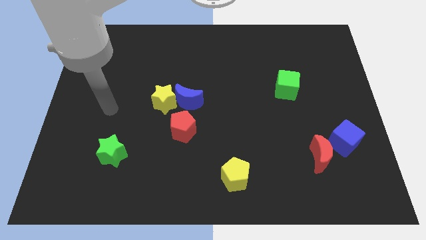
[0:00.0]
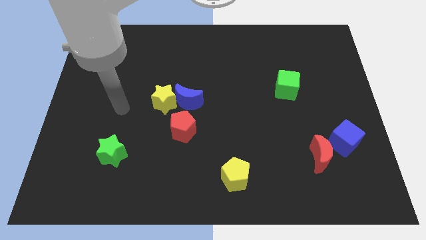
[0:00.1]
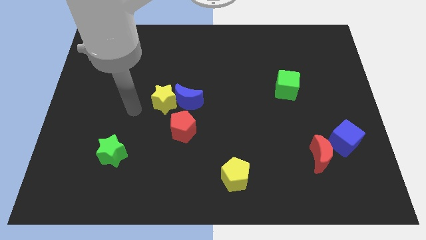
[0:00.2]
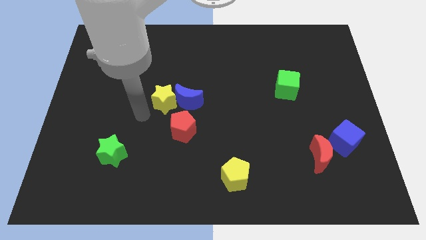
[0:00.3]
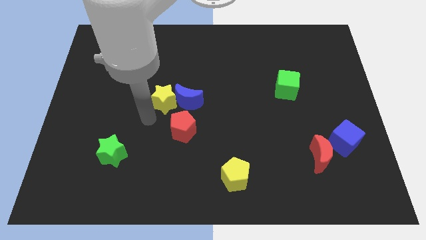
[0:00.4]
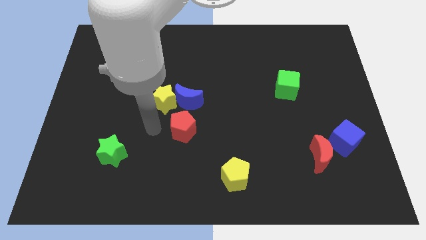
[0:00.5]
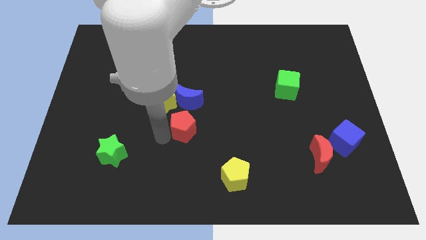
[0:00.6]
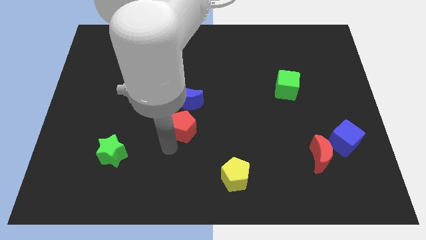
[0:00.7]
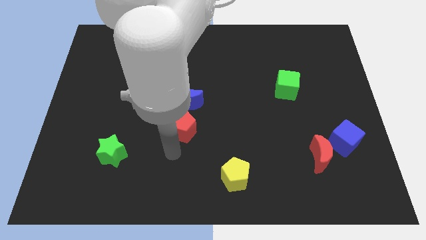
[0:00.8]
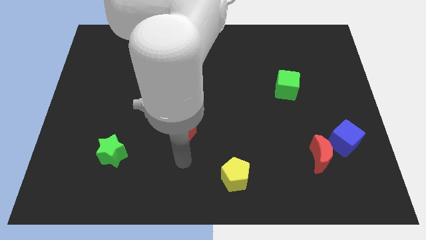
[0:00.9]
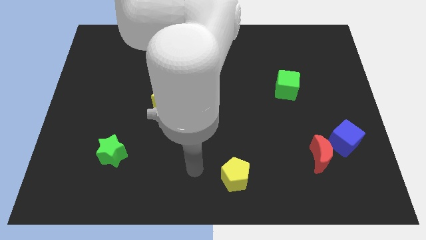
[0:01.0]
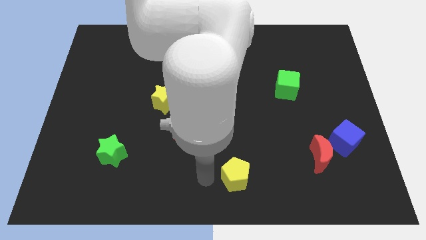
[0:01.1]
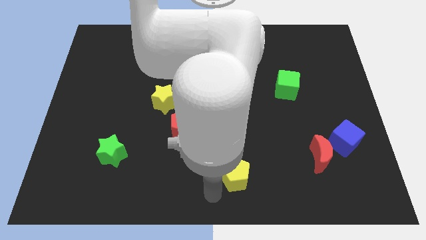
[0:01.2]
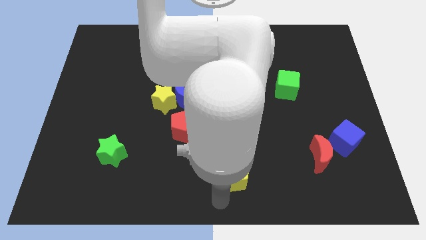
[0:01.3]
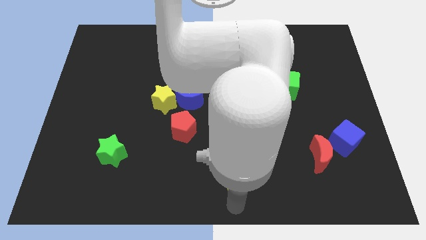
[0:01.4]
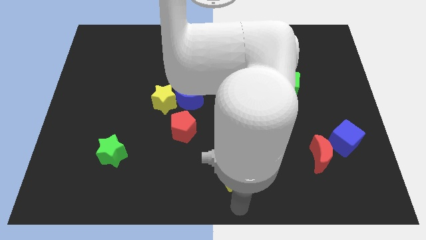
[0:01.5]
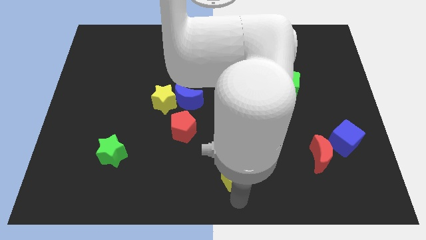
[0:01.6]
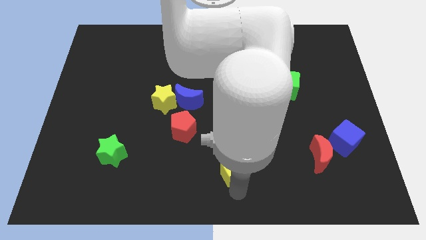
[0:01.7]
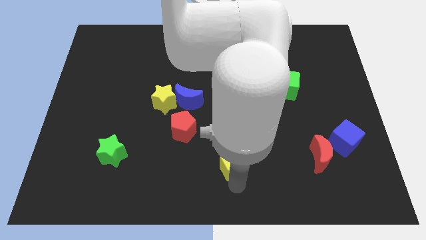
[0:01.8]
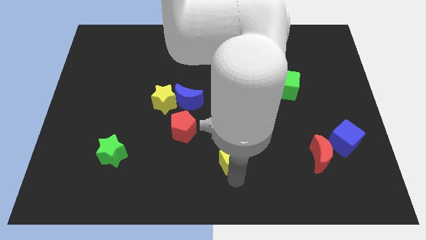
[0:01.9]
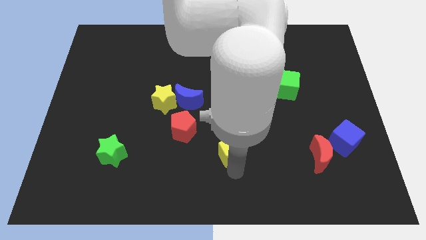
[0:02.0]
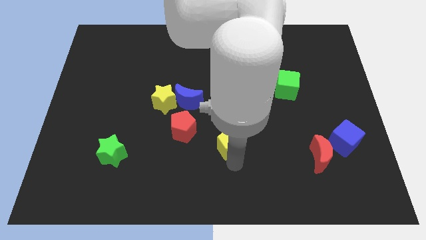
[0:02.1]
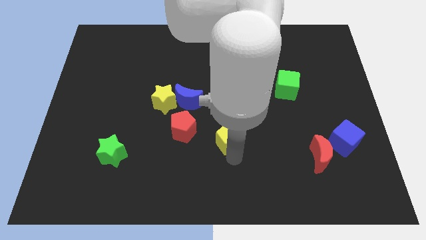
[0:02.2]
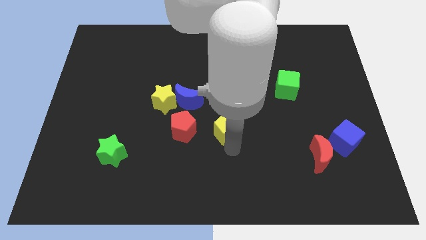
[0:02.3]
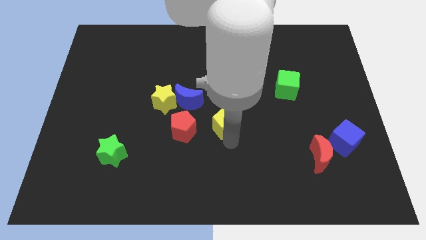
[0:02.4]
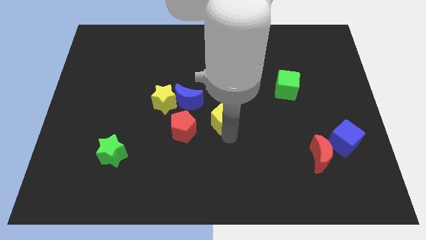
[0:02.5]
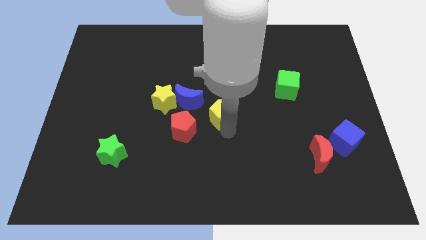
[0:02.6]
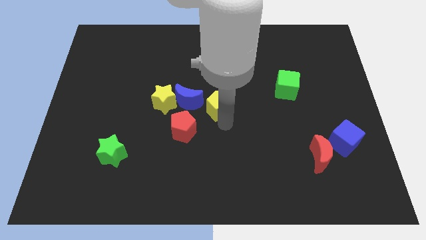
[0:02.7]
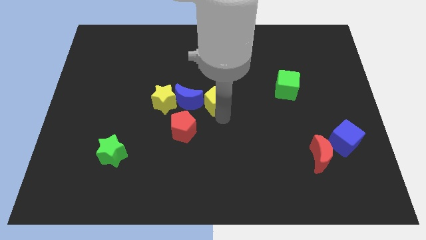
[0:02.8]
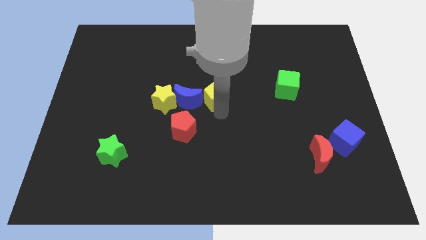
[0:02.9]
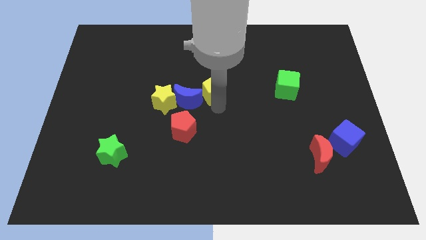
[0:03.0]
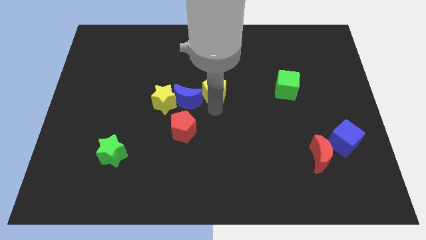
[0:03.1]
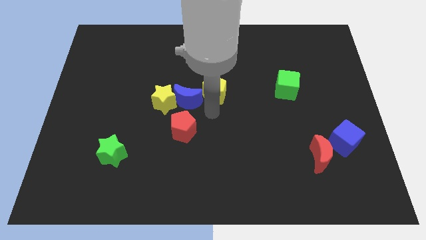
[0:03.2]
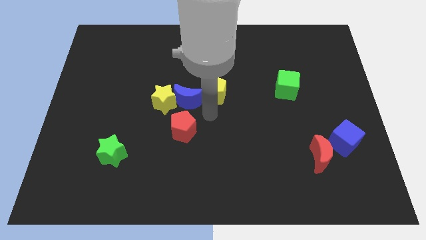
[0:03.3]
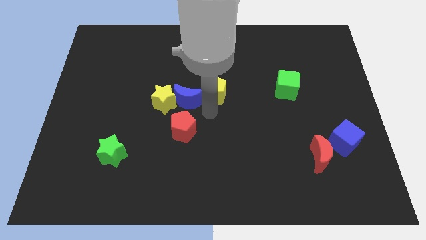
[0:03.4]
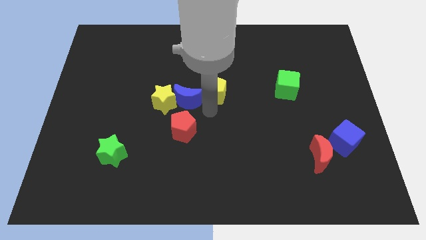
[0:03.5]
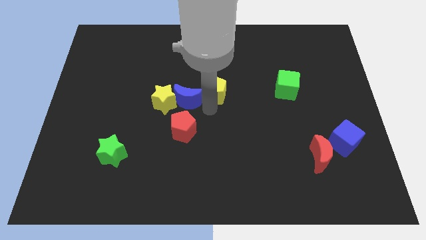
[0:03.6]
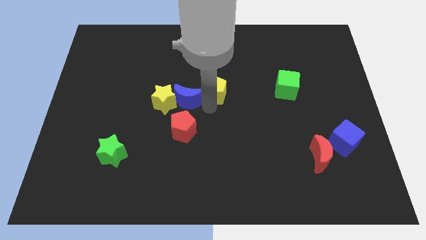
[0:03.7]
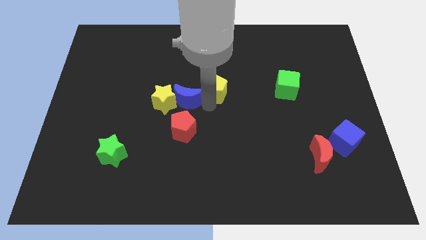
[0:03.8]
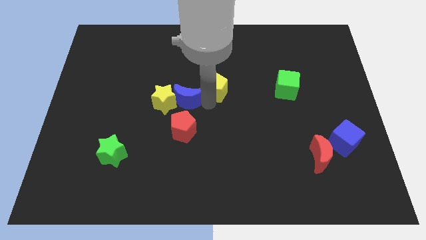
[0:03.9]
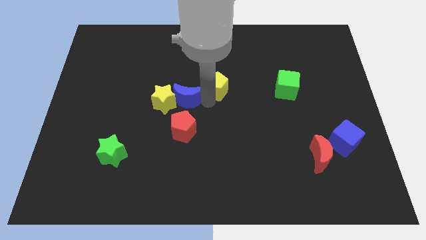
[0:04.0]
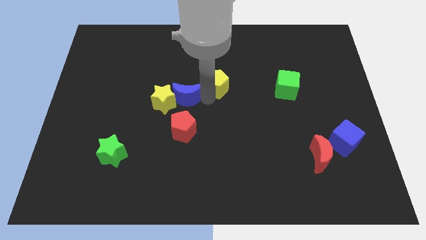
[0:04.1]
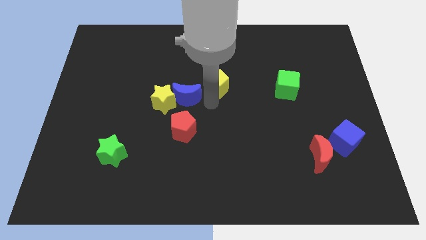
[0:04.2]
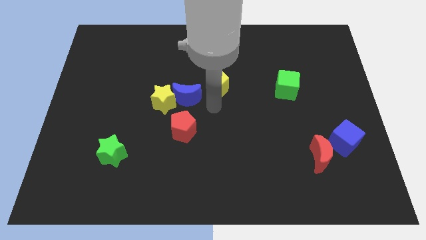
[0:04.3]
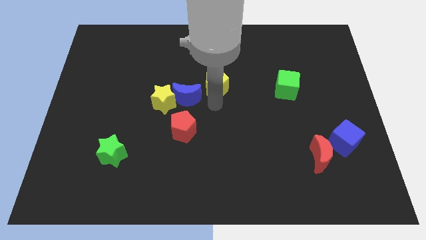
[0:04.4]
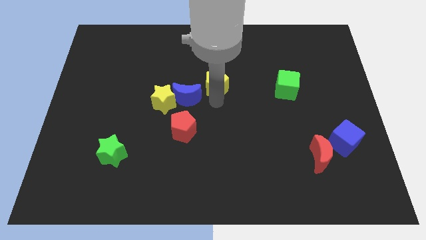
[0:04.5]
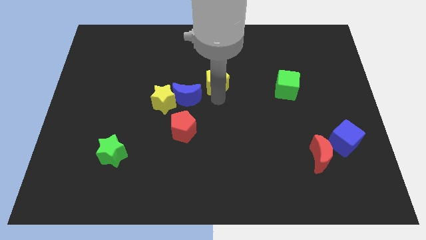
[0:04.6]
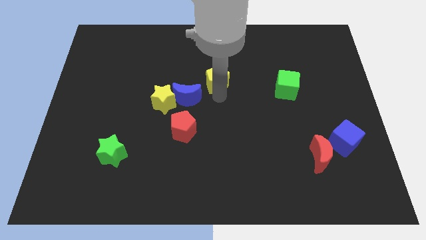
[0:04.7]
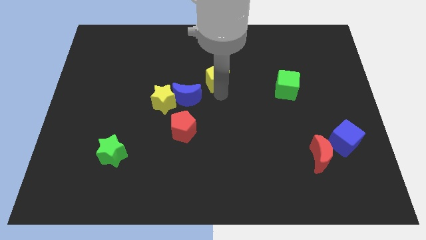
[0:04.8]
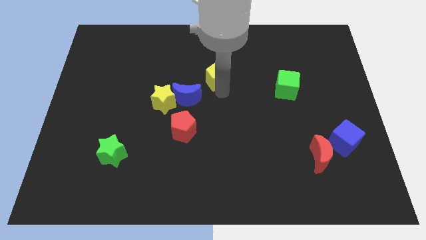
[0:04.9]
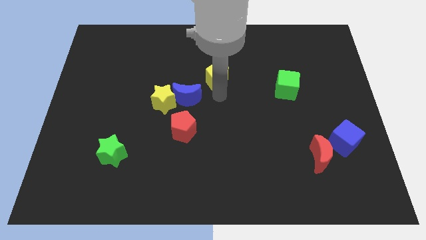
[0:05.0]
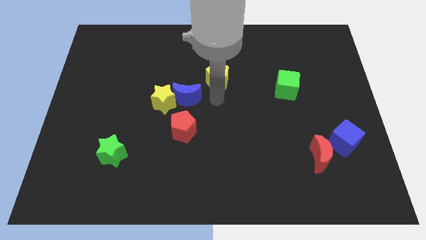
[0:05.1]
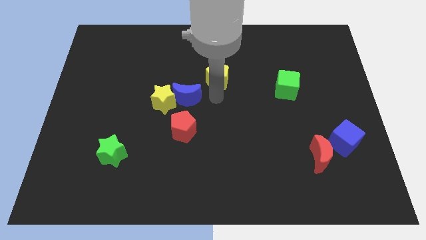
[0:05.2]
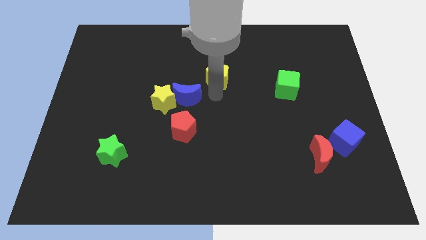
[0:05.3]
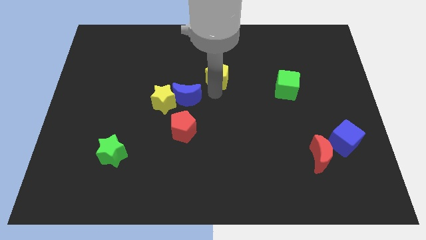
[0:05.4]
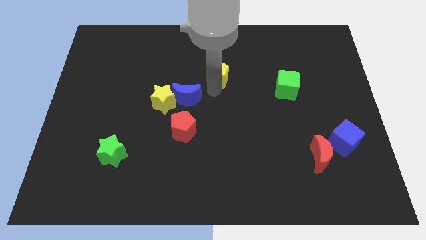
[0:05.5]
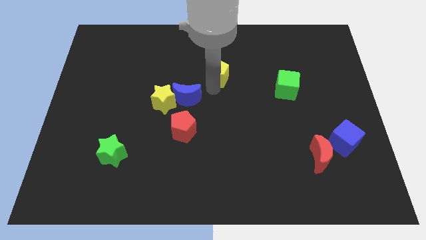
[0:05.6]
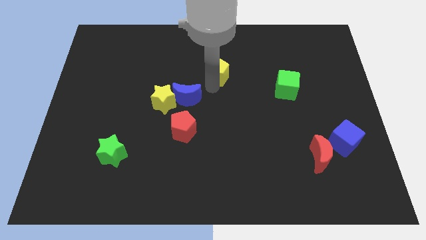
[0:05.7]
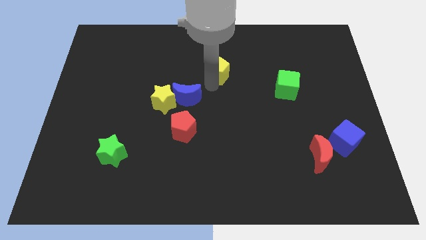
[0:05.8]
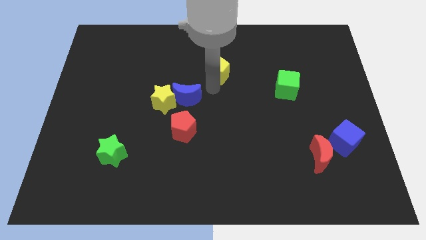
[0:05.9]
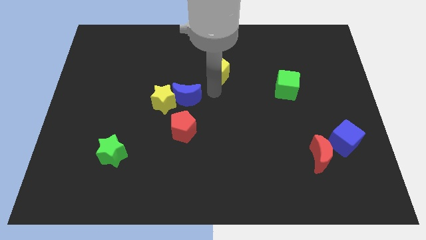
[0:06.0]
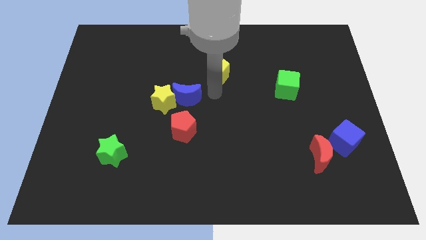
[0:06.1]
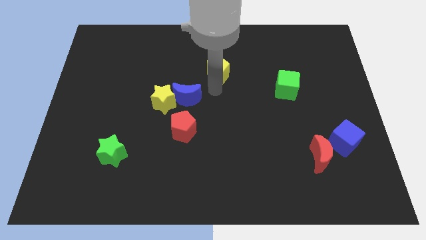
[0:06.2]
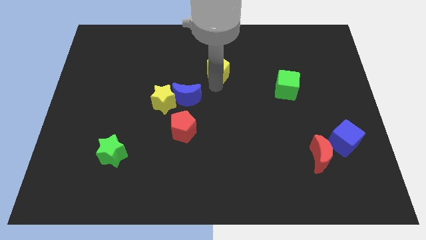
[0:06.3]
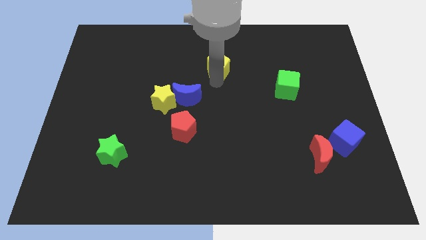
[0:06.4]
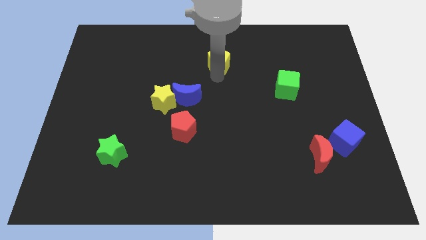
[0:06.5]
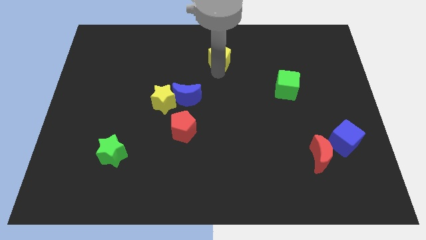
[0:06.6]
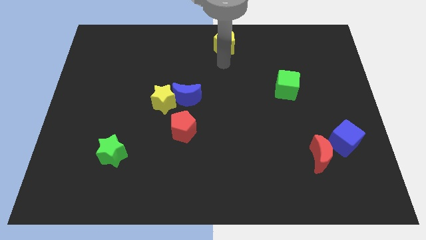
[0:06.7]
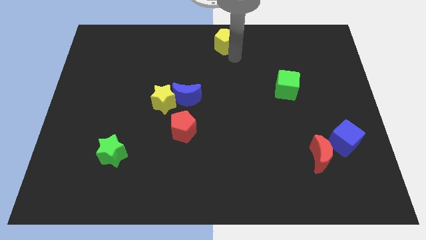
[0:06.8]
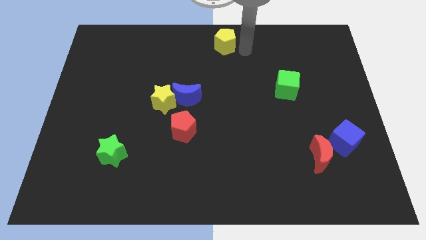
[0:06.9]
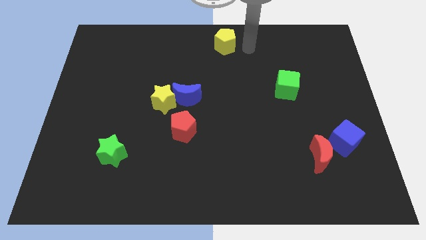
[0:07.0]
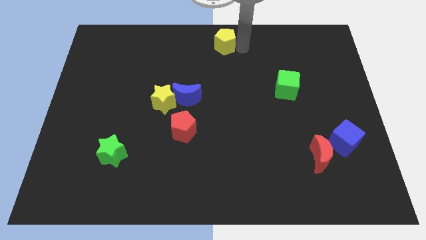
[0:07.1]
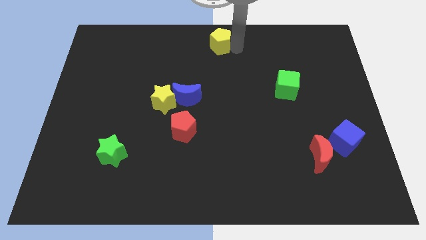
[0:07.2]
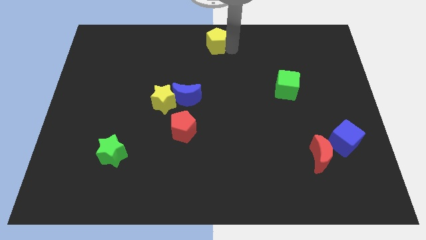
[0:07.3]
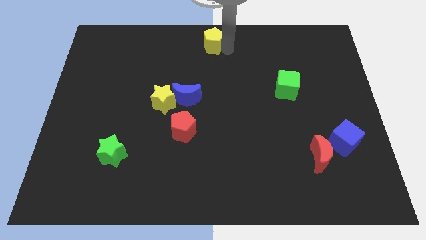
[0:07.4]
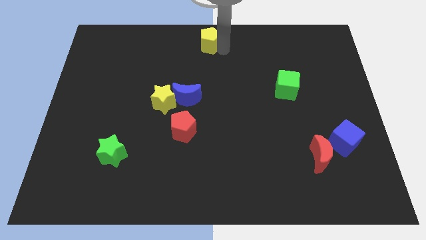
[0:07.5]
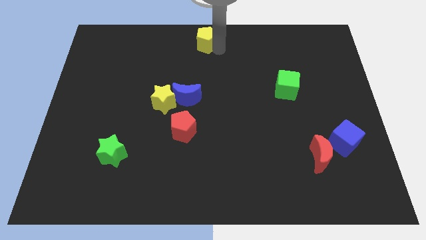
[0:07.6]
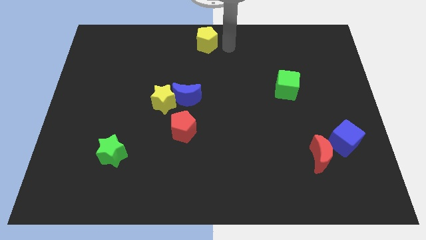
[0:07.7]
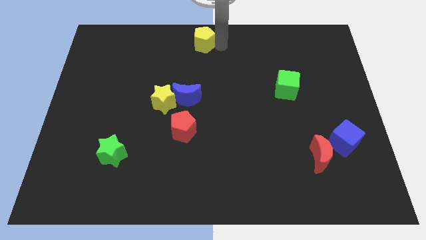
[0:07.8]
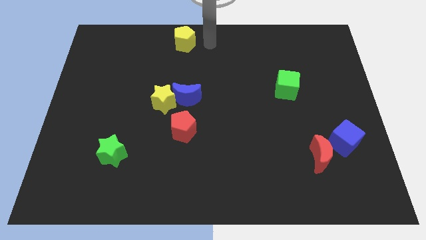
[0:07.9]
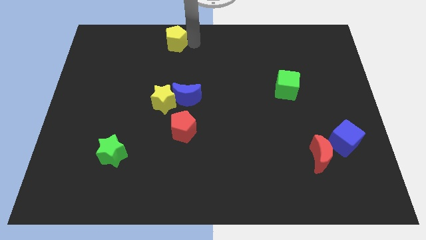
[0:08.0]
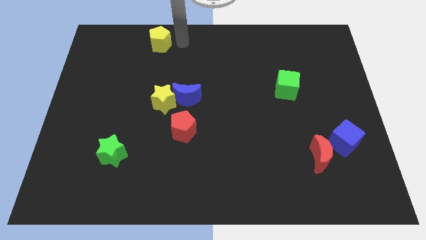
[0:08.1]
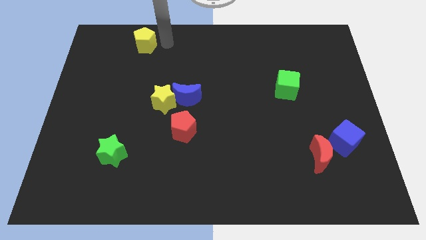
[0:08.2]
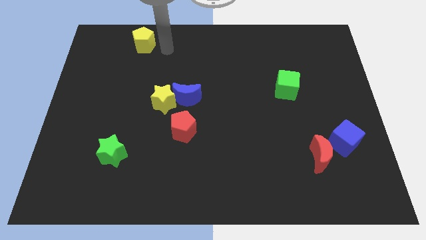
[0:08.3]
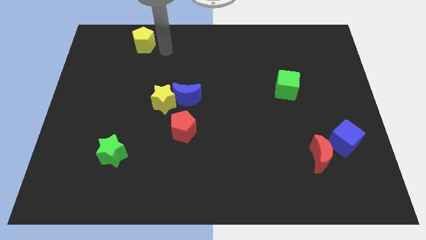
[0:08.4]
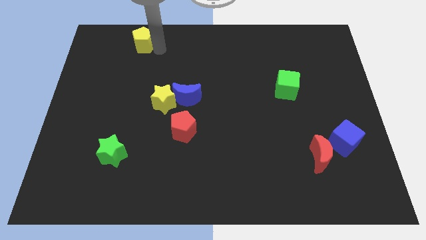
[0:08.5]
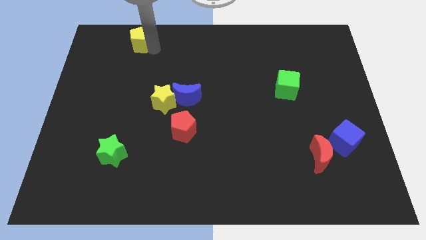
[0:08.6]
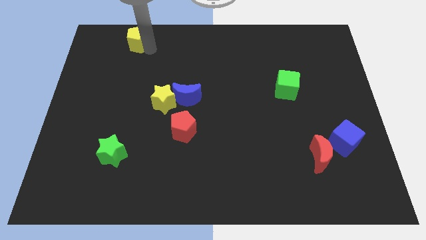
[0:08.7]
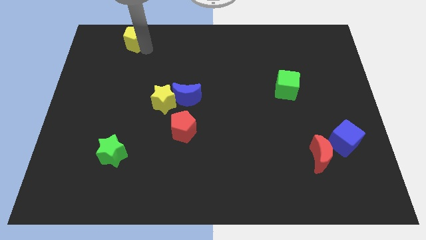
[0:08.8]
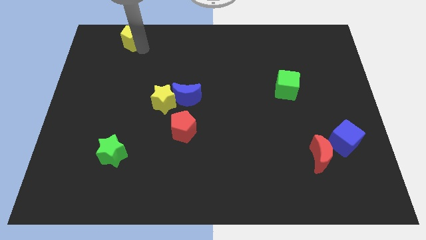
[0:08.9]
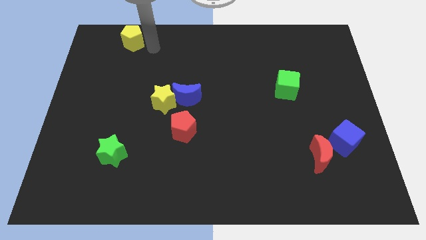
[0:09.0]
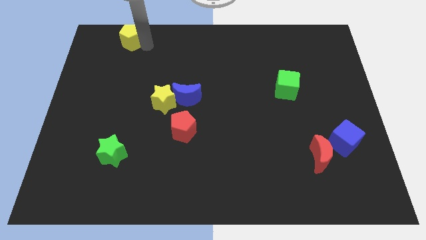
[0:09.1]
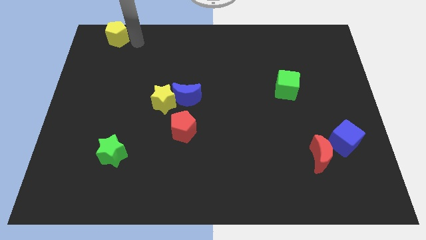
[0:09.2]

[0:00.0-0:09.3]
push the yellow pentagon to the top left of the board
